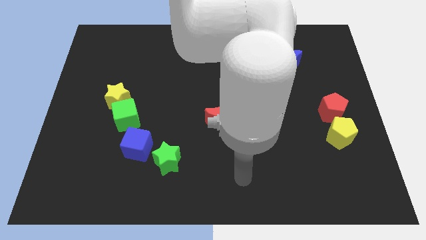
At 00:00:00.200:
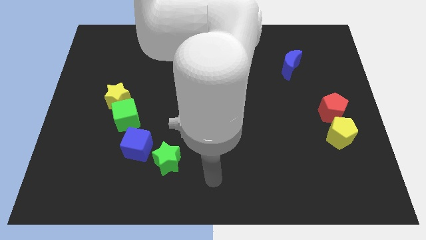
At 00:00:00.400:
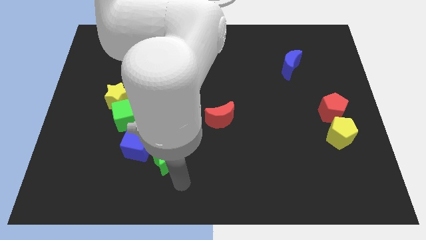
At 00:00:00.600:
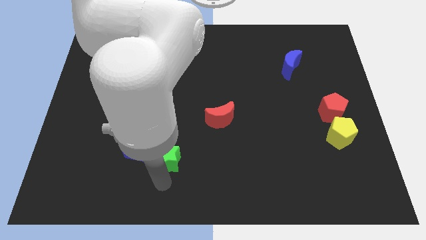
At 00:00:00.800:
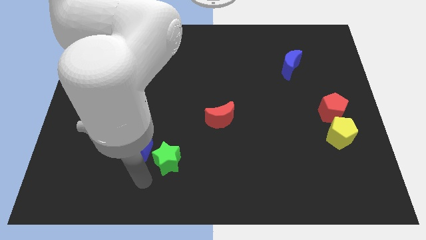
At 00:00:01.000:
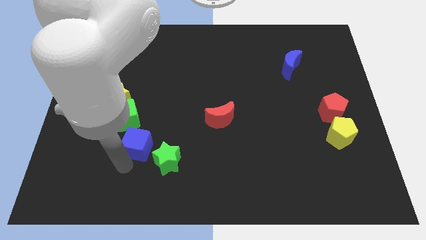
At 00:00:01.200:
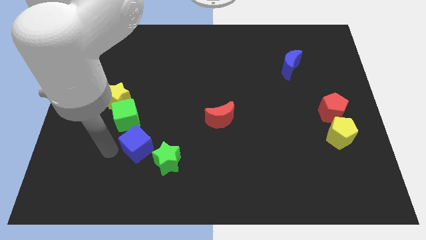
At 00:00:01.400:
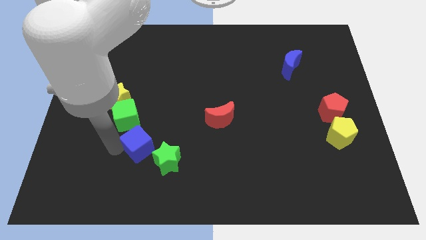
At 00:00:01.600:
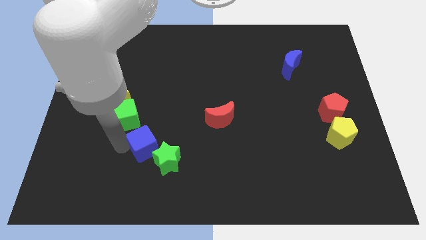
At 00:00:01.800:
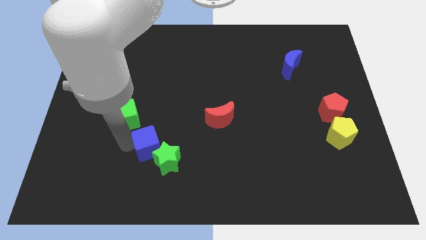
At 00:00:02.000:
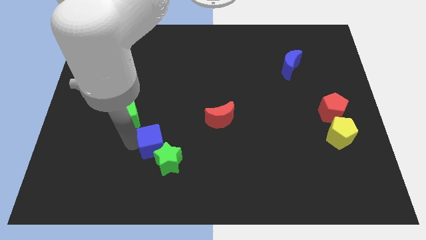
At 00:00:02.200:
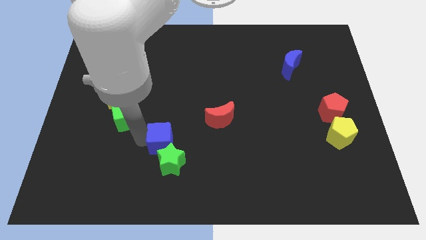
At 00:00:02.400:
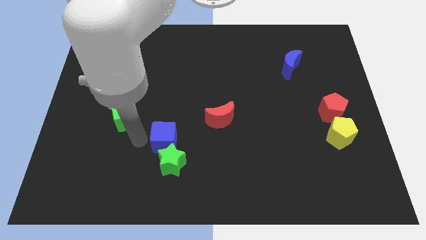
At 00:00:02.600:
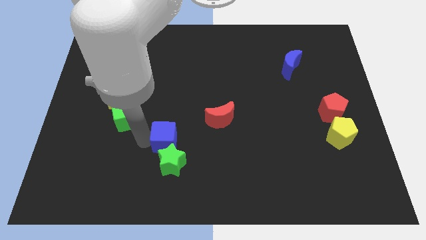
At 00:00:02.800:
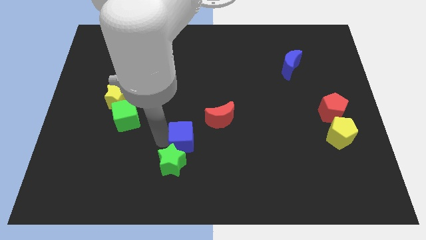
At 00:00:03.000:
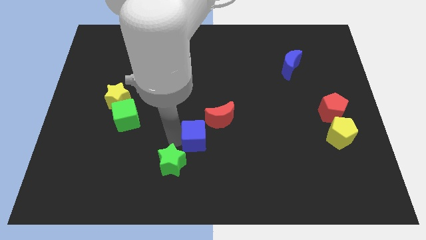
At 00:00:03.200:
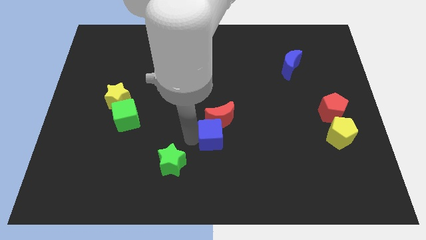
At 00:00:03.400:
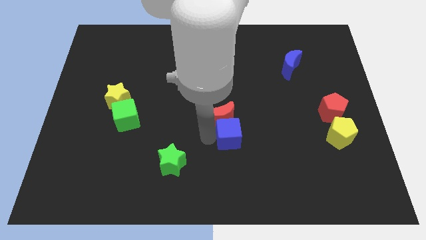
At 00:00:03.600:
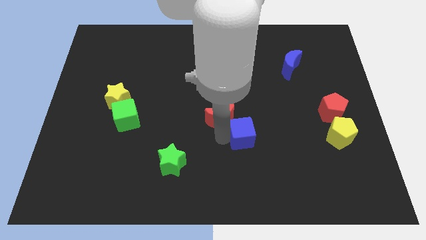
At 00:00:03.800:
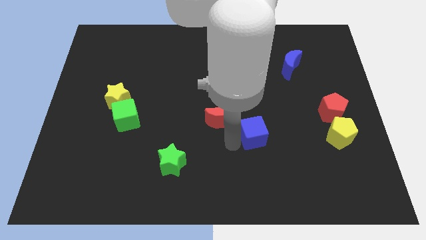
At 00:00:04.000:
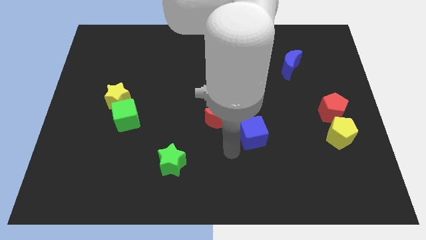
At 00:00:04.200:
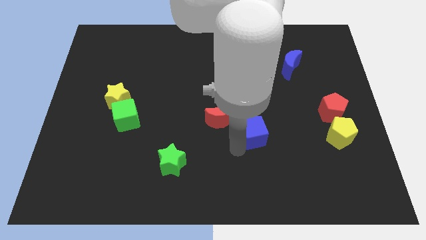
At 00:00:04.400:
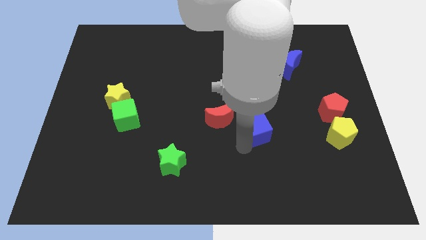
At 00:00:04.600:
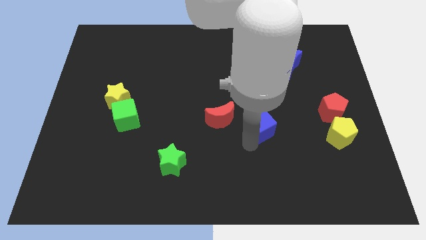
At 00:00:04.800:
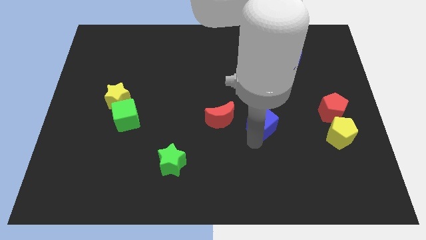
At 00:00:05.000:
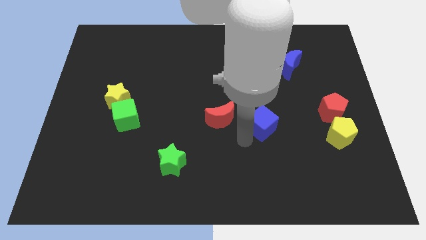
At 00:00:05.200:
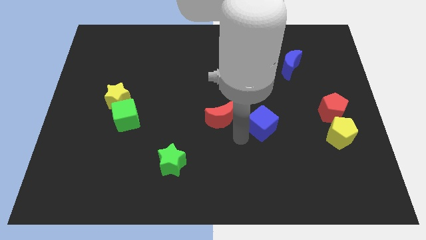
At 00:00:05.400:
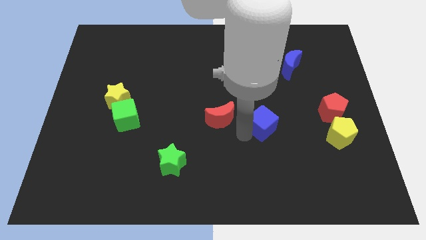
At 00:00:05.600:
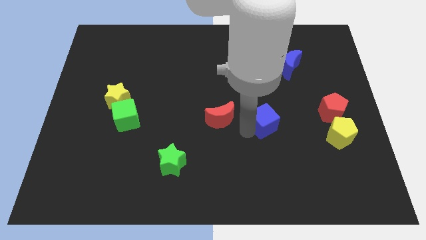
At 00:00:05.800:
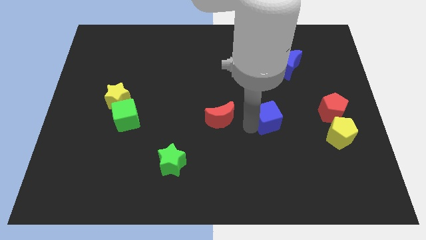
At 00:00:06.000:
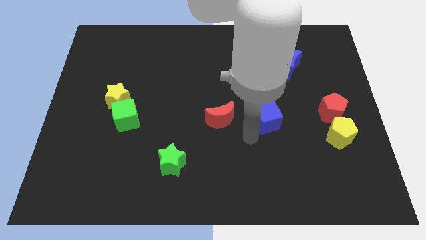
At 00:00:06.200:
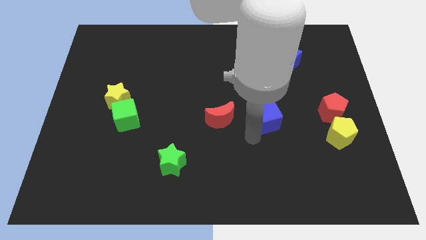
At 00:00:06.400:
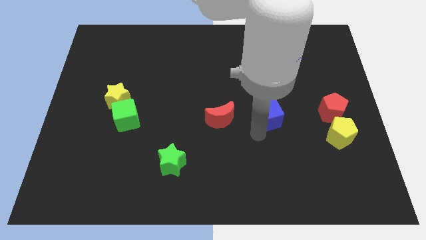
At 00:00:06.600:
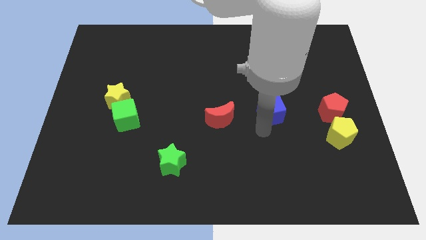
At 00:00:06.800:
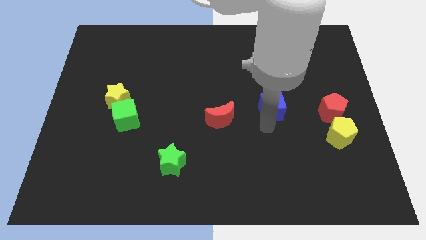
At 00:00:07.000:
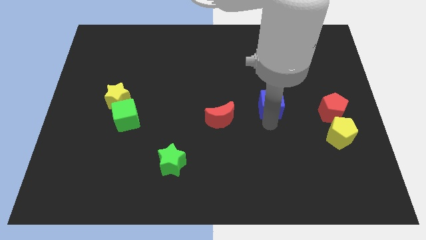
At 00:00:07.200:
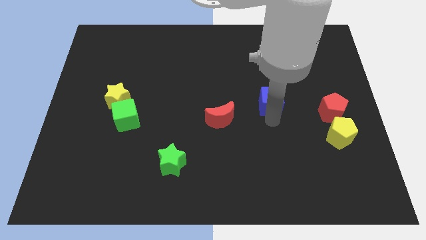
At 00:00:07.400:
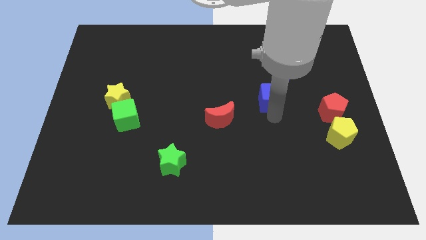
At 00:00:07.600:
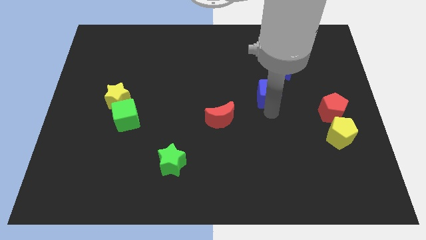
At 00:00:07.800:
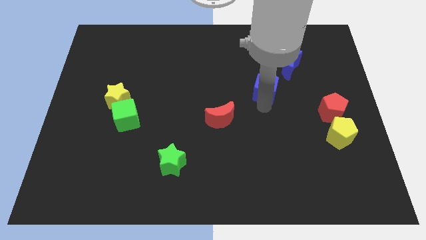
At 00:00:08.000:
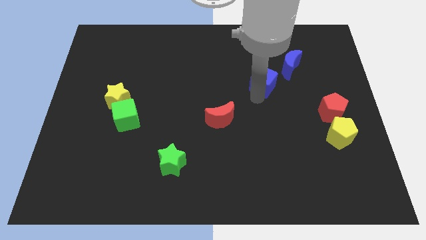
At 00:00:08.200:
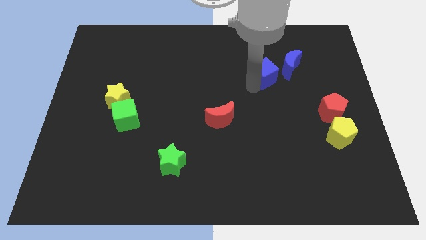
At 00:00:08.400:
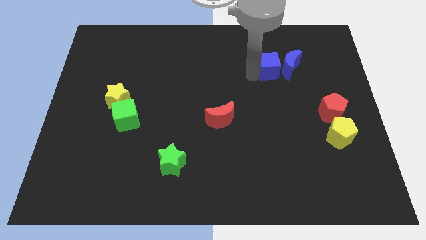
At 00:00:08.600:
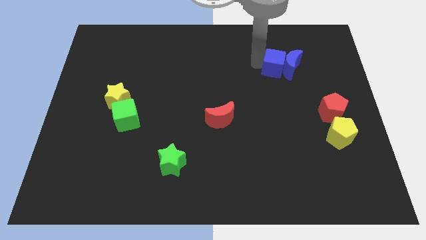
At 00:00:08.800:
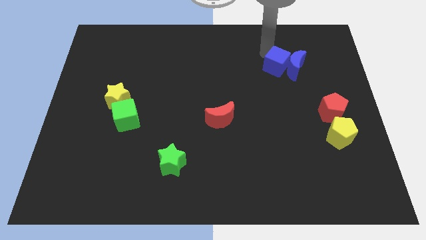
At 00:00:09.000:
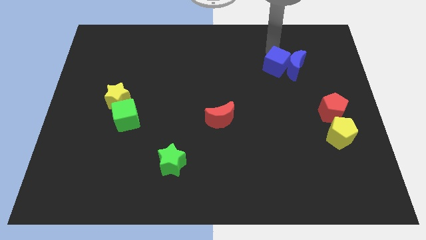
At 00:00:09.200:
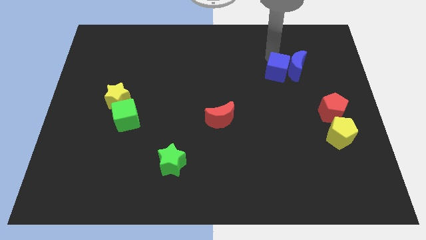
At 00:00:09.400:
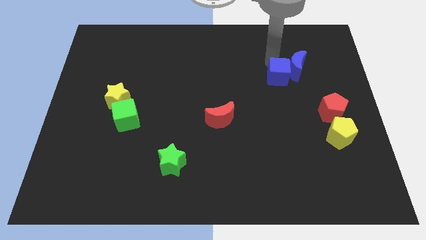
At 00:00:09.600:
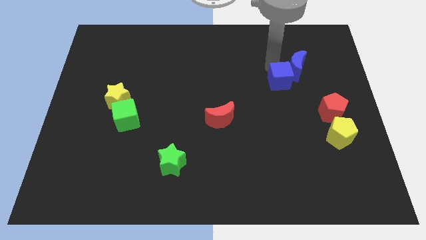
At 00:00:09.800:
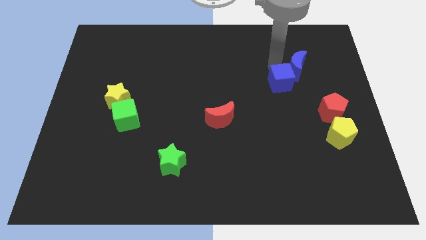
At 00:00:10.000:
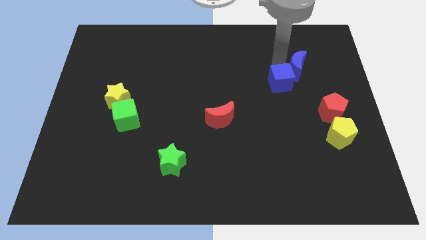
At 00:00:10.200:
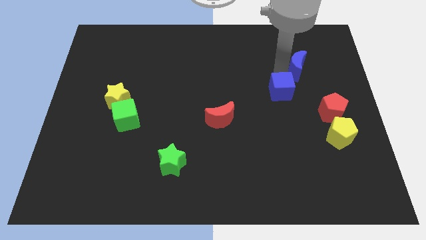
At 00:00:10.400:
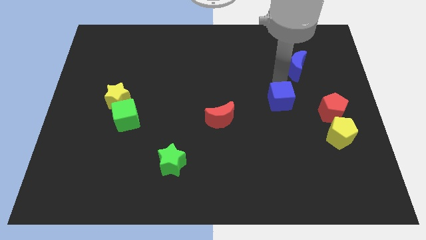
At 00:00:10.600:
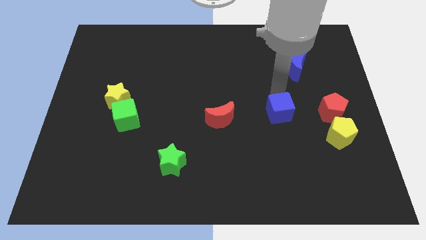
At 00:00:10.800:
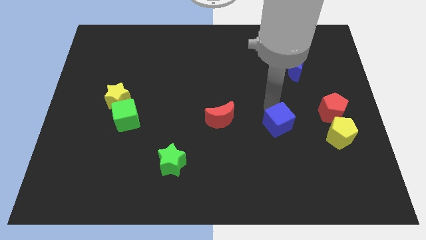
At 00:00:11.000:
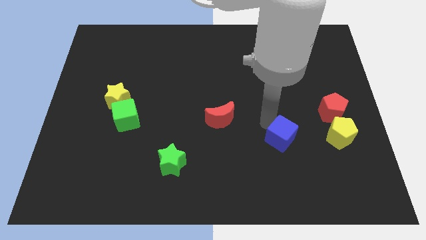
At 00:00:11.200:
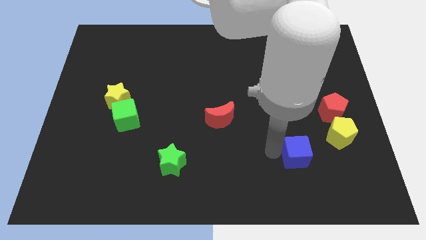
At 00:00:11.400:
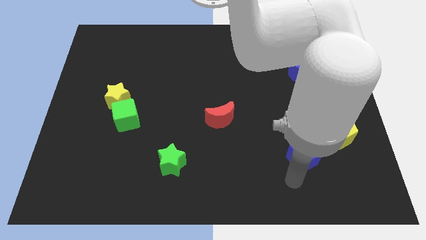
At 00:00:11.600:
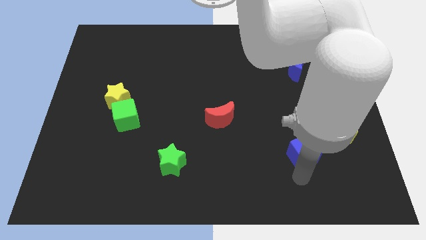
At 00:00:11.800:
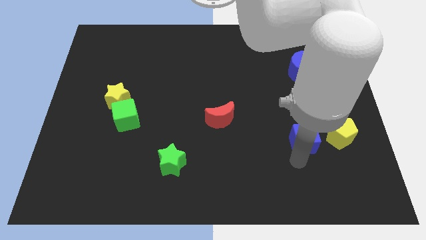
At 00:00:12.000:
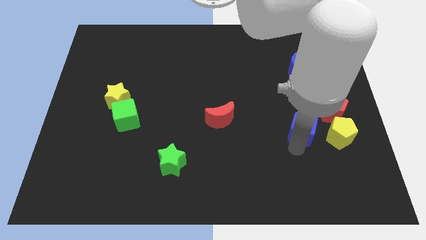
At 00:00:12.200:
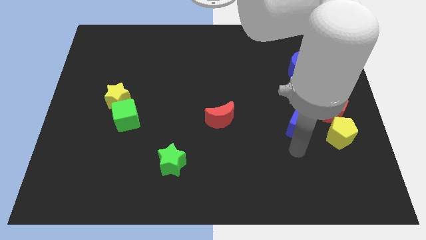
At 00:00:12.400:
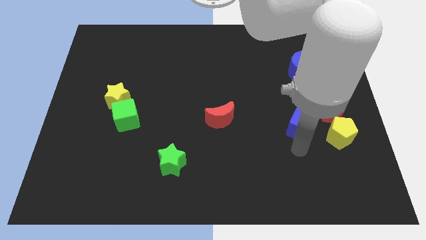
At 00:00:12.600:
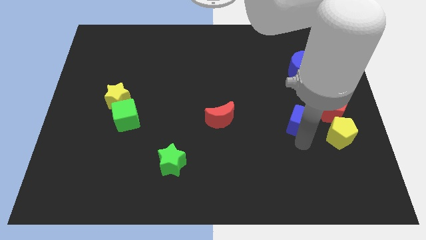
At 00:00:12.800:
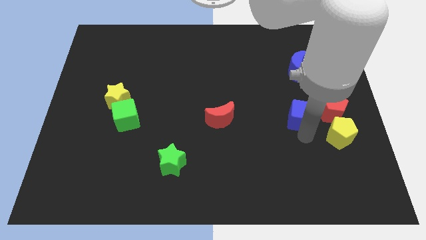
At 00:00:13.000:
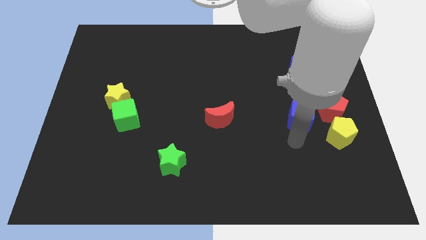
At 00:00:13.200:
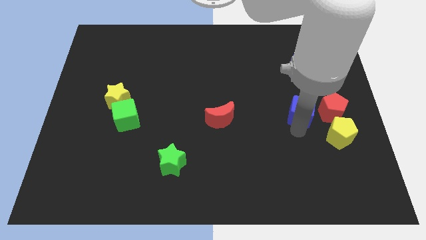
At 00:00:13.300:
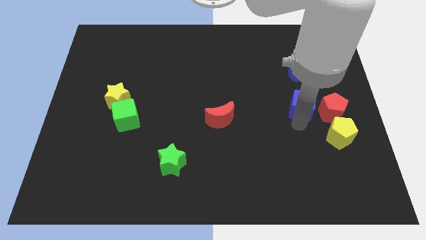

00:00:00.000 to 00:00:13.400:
put the blue cube to the top left of the red pentagon

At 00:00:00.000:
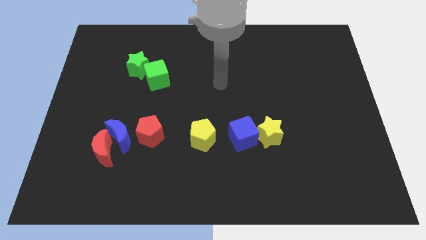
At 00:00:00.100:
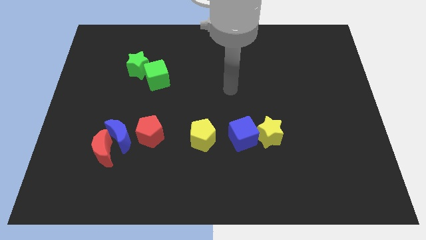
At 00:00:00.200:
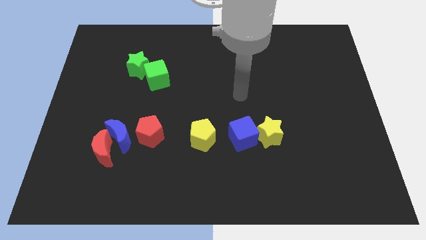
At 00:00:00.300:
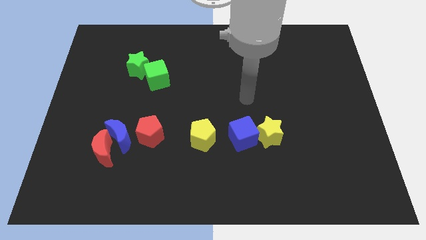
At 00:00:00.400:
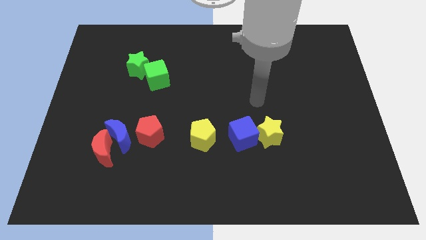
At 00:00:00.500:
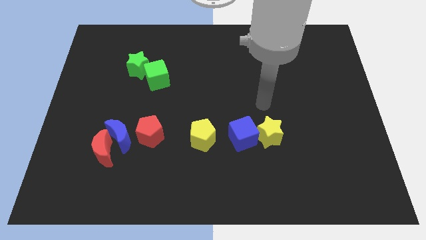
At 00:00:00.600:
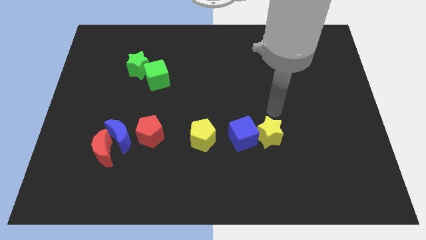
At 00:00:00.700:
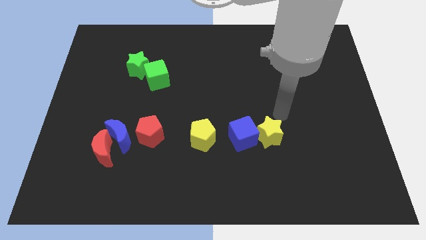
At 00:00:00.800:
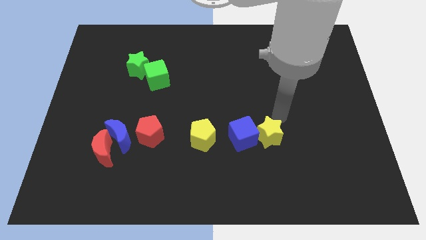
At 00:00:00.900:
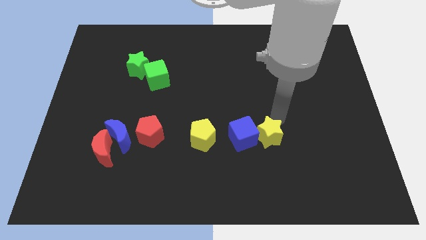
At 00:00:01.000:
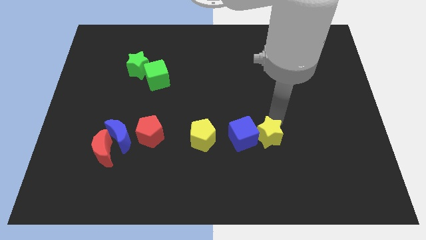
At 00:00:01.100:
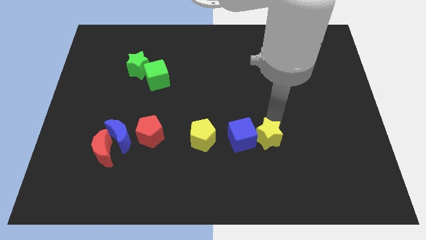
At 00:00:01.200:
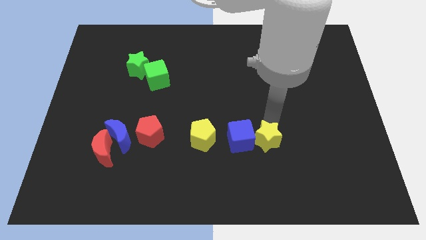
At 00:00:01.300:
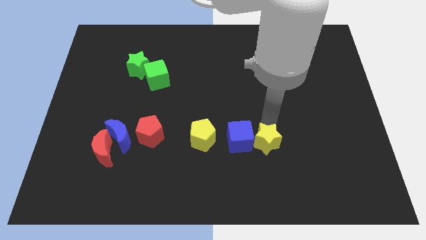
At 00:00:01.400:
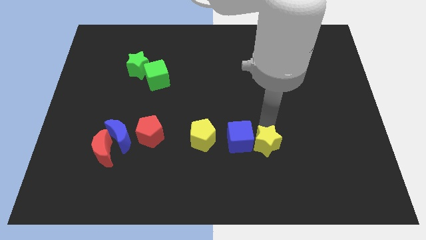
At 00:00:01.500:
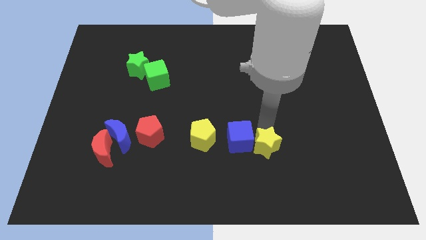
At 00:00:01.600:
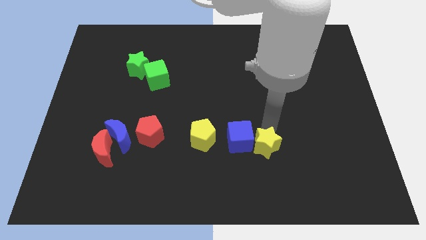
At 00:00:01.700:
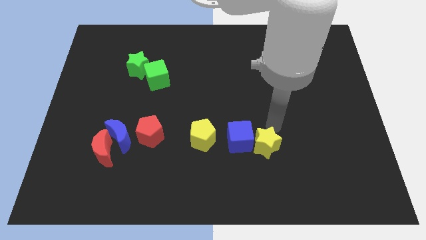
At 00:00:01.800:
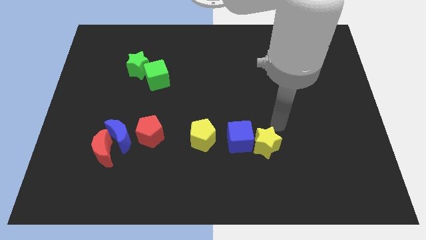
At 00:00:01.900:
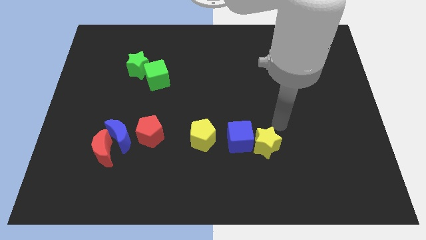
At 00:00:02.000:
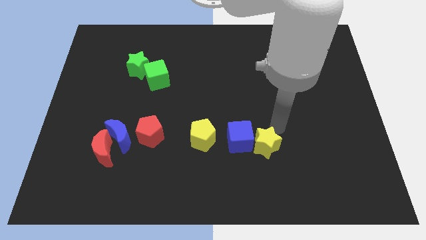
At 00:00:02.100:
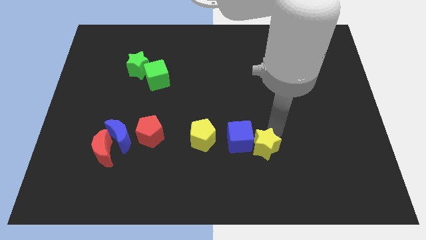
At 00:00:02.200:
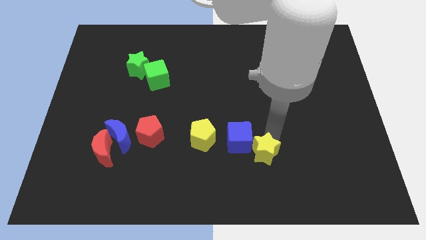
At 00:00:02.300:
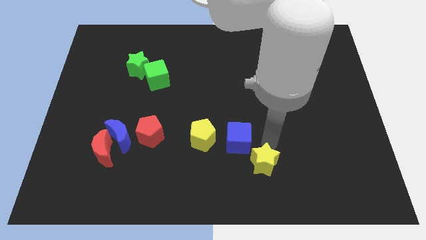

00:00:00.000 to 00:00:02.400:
move the yellow star to the bottom side of the blue cube
